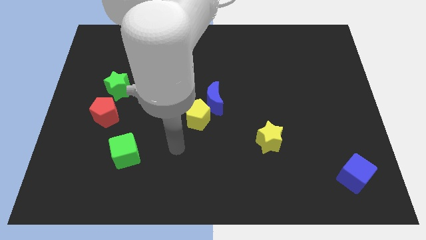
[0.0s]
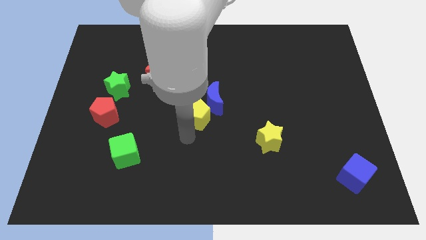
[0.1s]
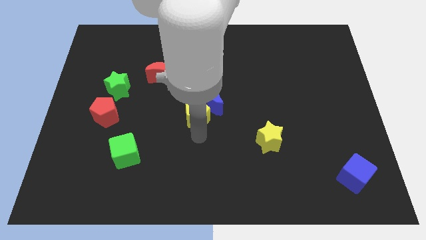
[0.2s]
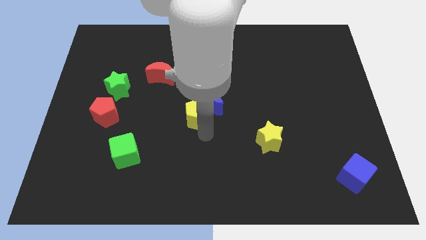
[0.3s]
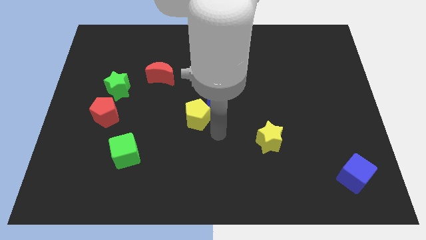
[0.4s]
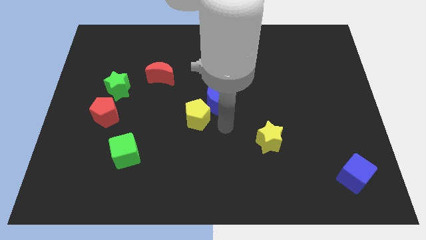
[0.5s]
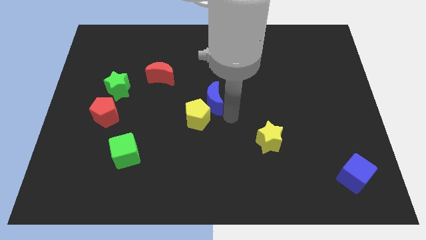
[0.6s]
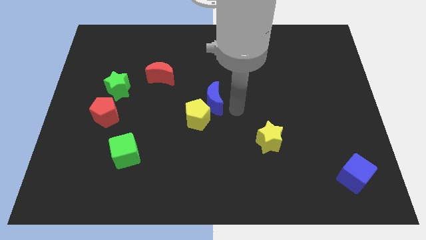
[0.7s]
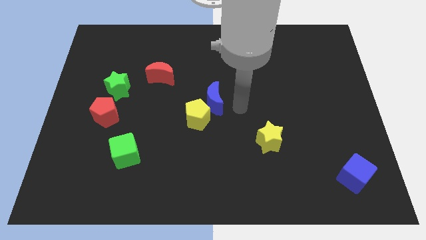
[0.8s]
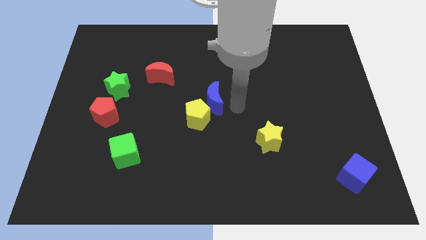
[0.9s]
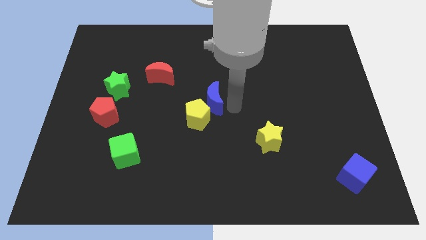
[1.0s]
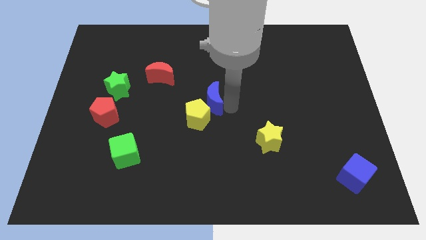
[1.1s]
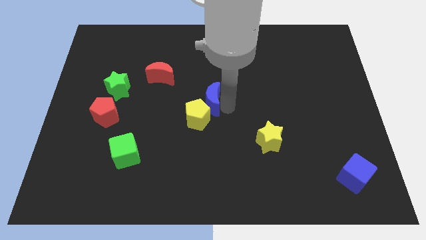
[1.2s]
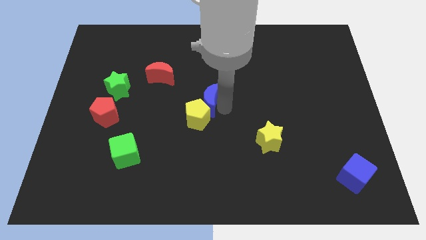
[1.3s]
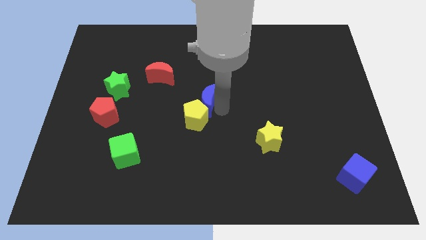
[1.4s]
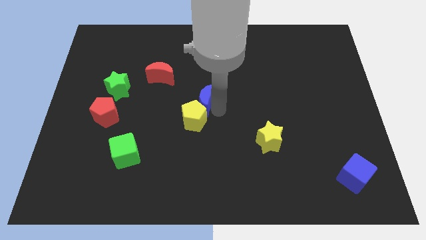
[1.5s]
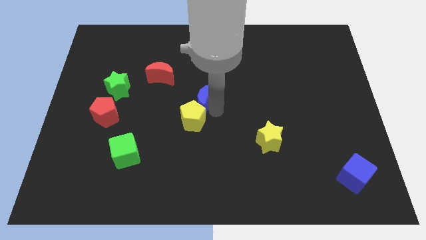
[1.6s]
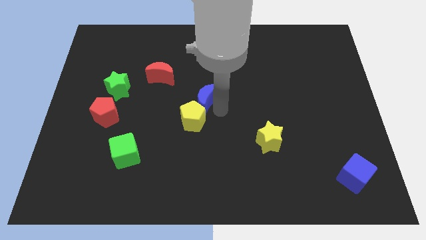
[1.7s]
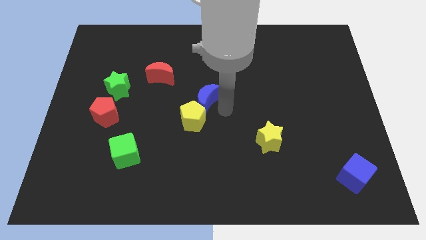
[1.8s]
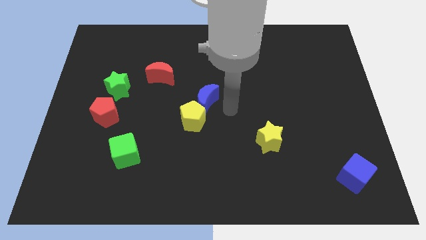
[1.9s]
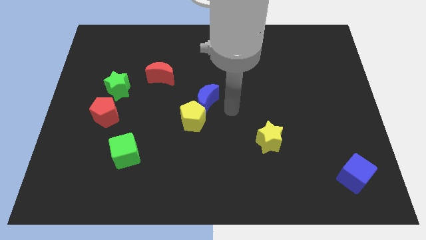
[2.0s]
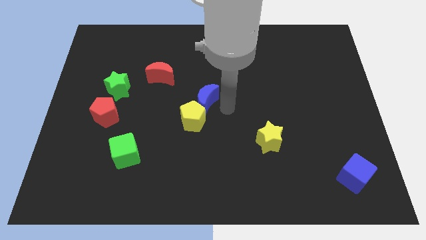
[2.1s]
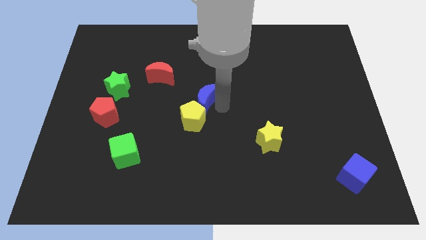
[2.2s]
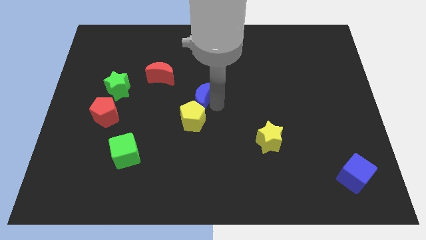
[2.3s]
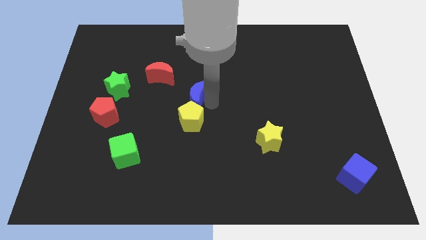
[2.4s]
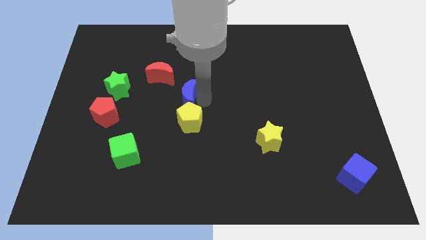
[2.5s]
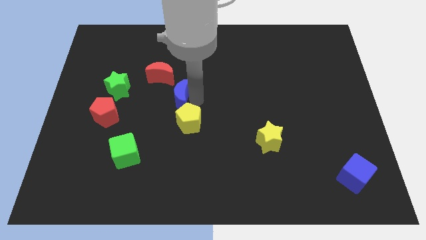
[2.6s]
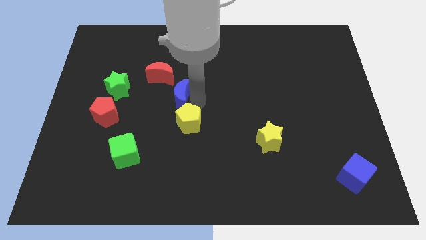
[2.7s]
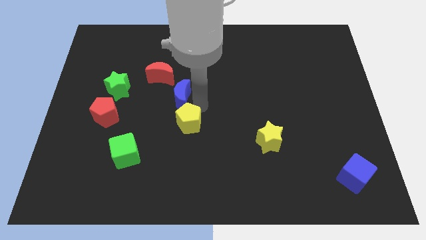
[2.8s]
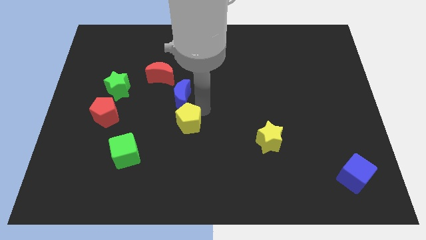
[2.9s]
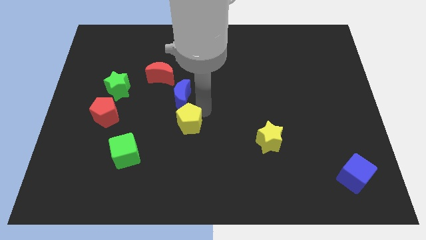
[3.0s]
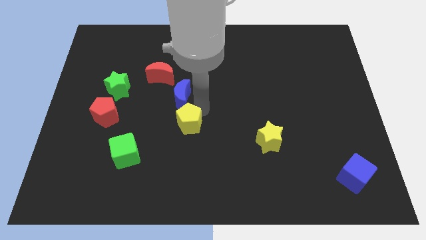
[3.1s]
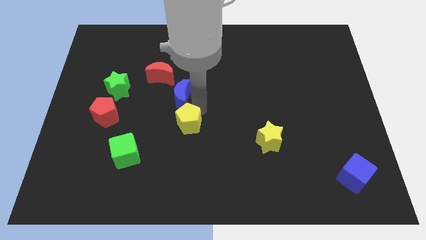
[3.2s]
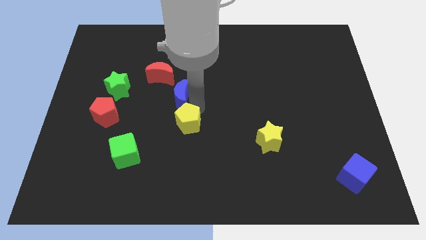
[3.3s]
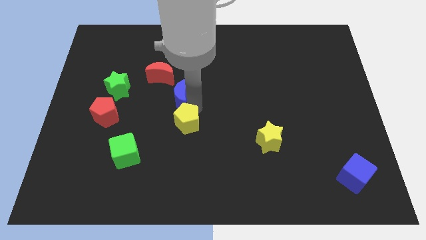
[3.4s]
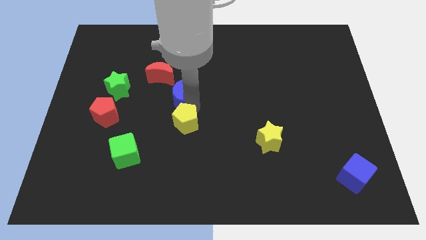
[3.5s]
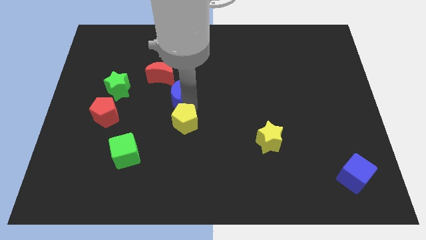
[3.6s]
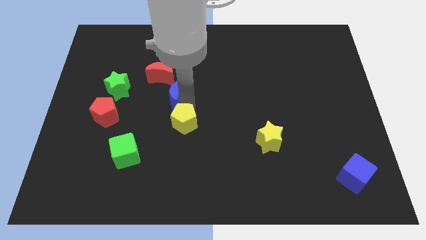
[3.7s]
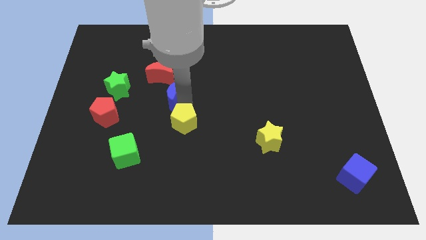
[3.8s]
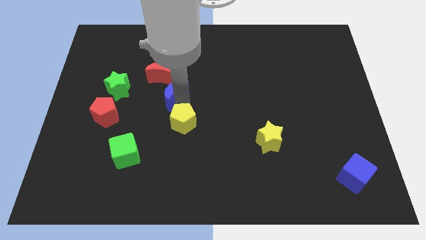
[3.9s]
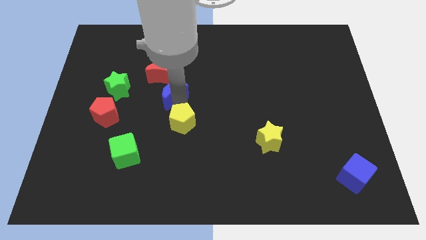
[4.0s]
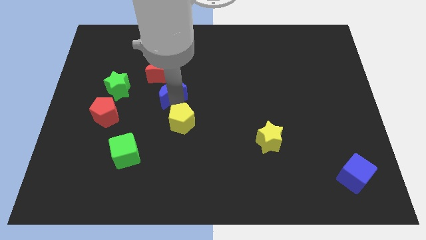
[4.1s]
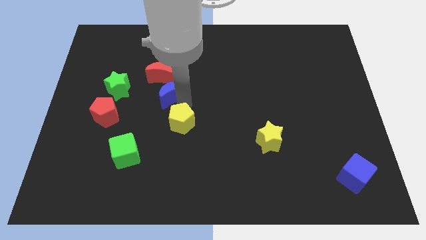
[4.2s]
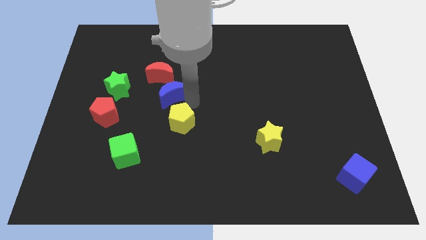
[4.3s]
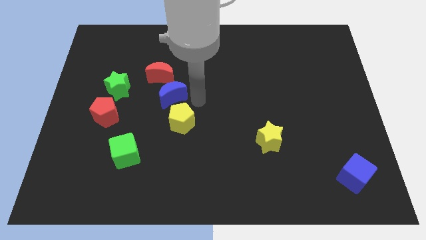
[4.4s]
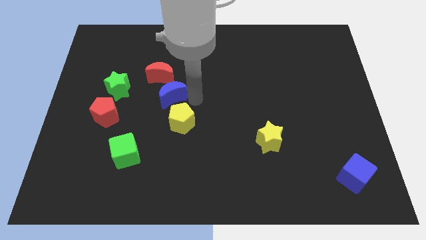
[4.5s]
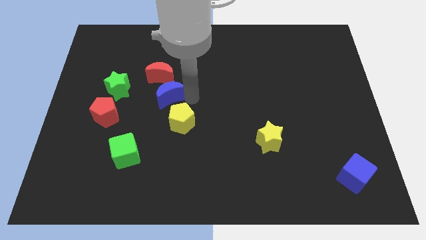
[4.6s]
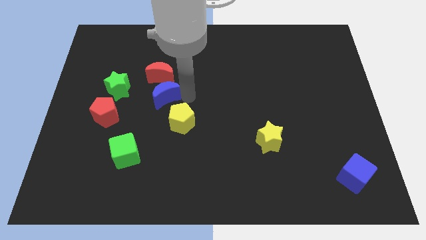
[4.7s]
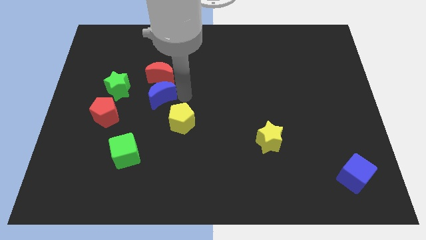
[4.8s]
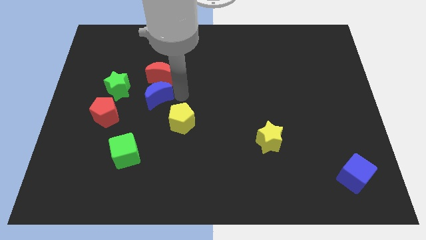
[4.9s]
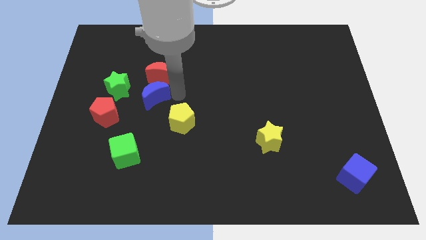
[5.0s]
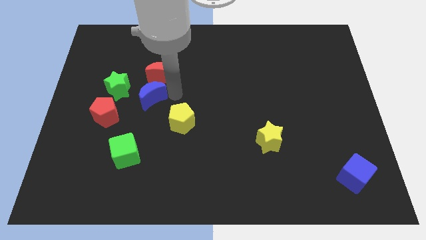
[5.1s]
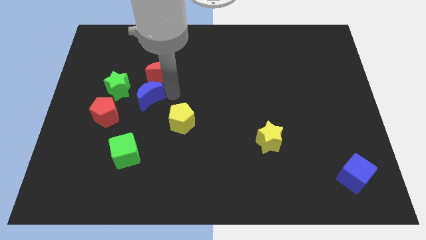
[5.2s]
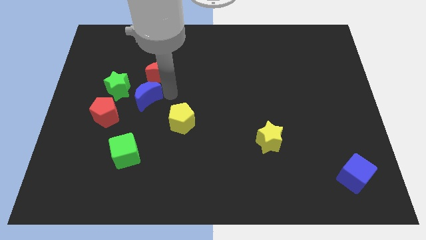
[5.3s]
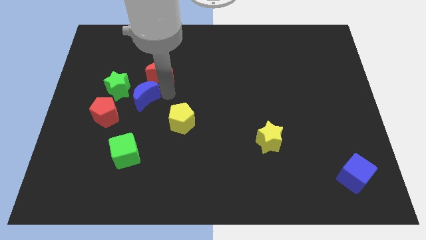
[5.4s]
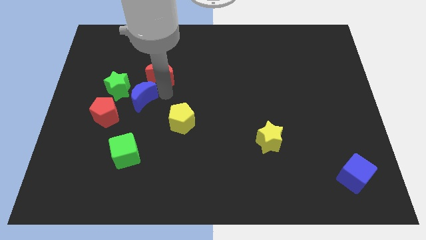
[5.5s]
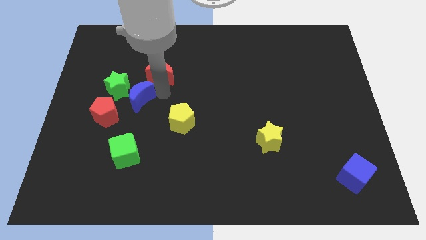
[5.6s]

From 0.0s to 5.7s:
put the blue moon next to the green star

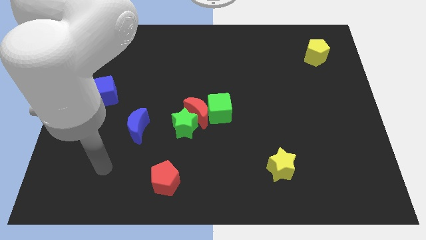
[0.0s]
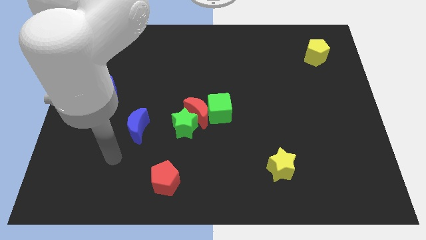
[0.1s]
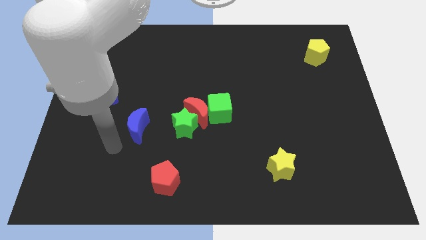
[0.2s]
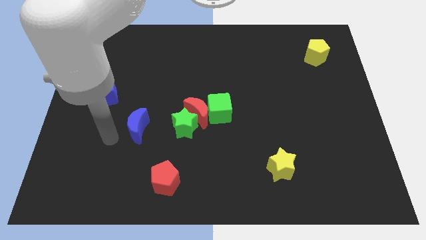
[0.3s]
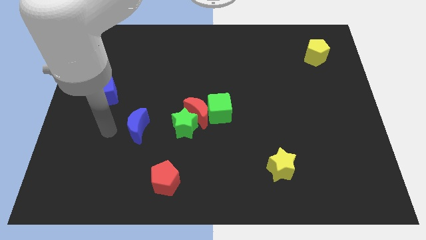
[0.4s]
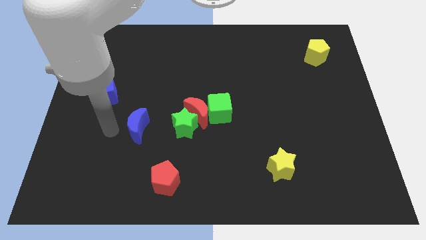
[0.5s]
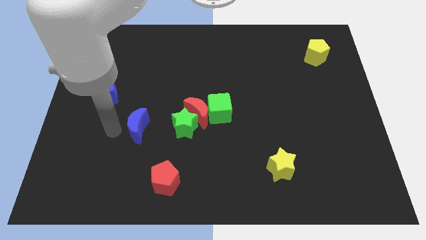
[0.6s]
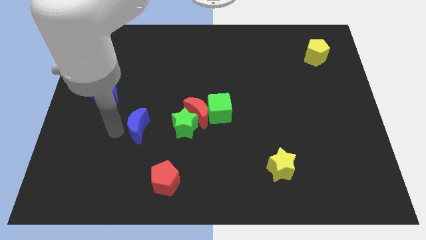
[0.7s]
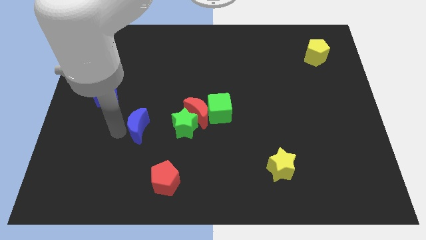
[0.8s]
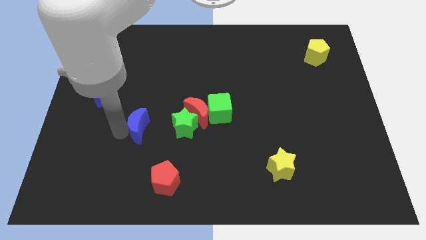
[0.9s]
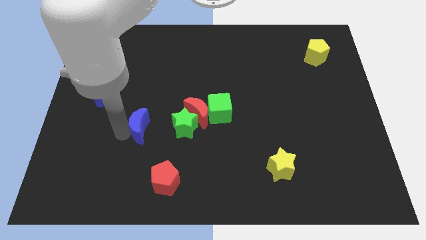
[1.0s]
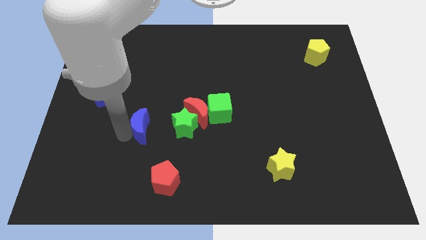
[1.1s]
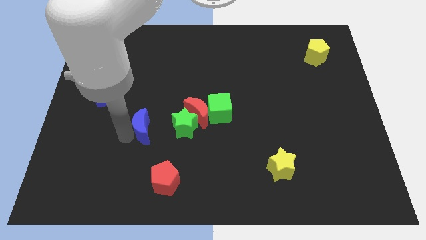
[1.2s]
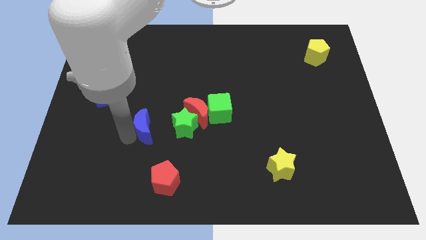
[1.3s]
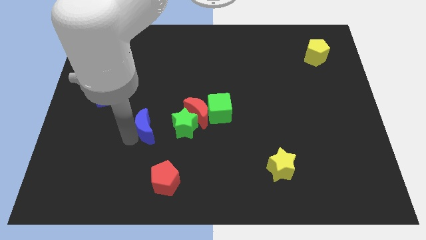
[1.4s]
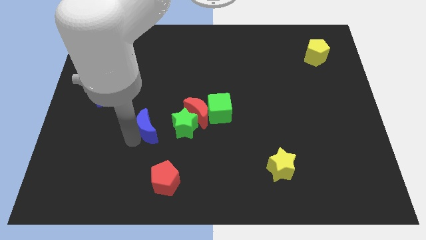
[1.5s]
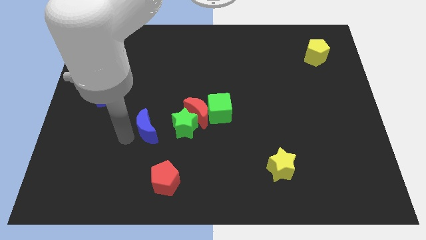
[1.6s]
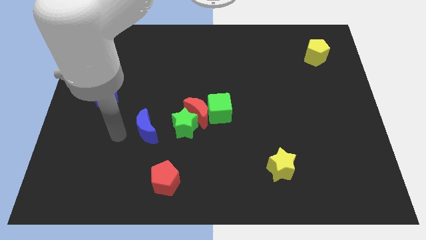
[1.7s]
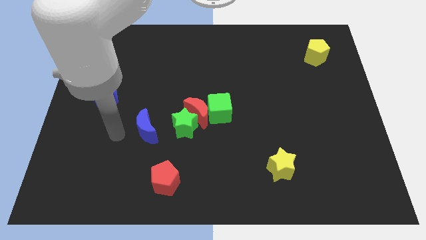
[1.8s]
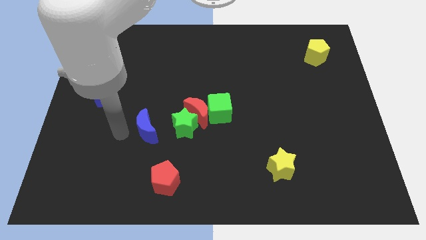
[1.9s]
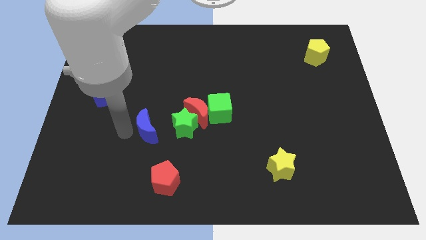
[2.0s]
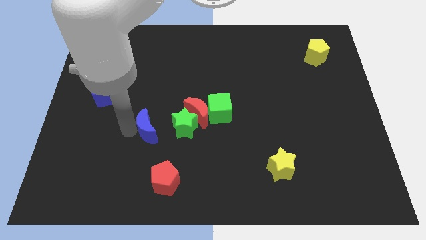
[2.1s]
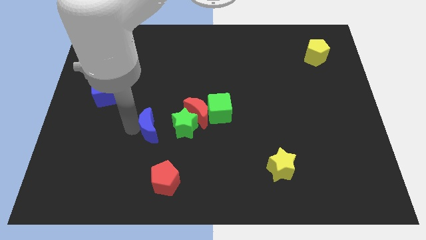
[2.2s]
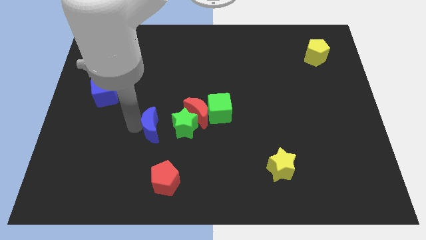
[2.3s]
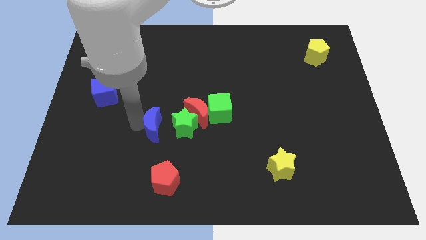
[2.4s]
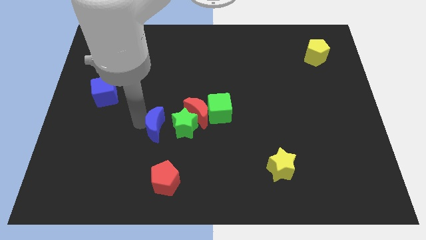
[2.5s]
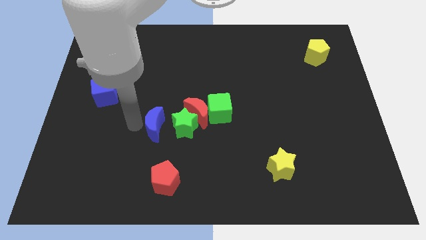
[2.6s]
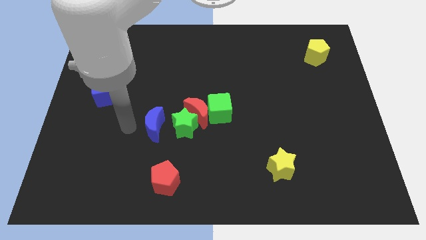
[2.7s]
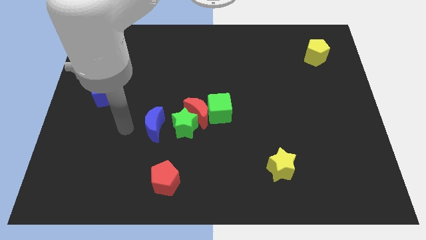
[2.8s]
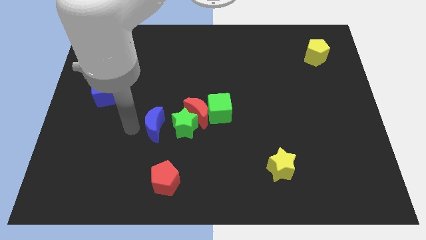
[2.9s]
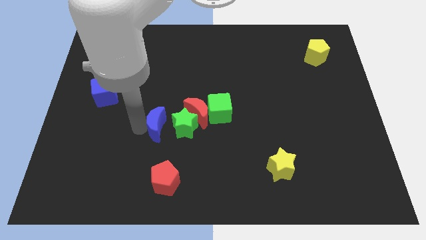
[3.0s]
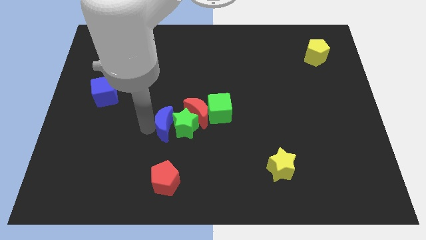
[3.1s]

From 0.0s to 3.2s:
slide the blue moon next to the green star
